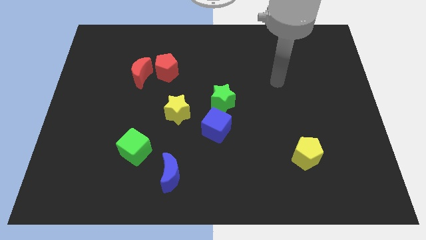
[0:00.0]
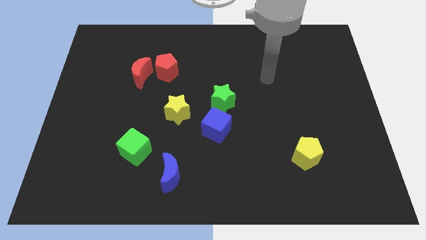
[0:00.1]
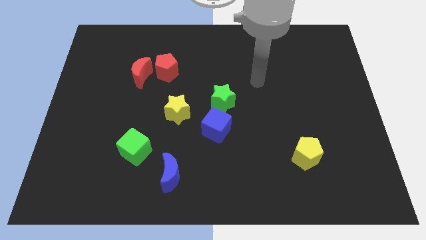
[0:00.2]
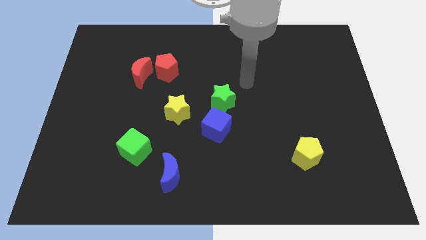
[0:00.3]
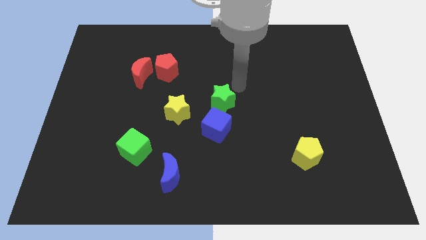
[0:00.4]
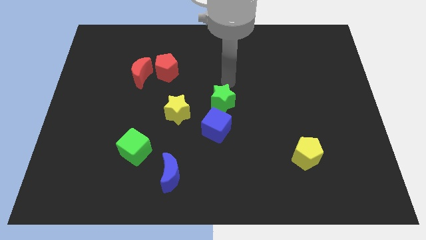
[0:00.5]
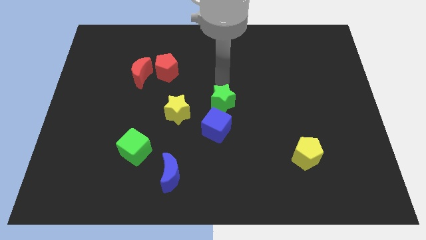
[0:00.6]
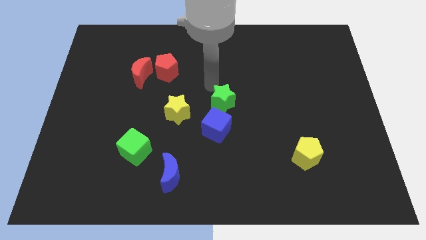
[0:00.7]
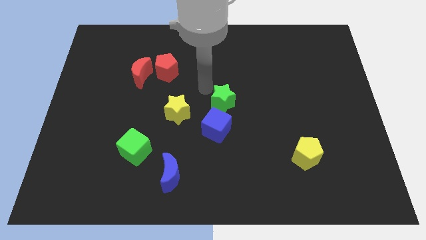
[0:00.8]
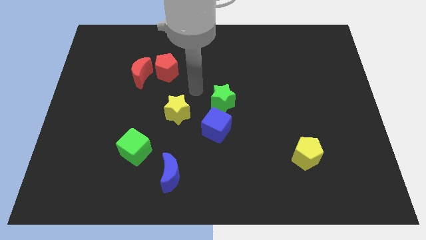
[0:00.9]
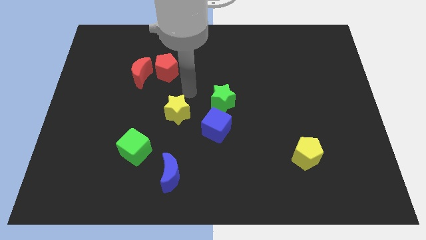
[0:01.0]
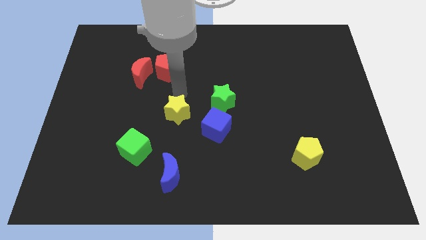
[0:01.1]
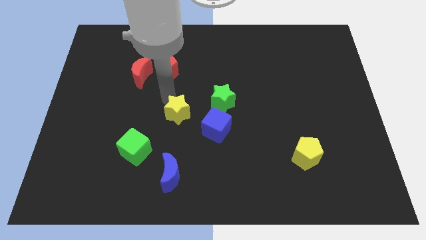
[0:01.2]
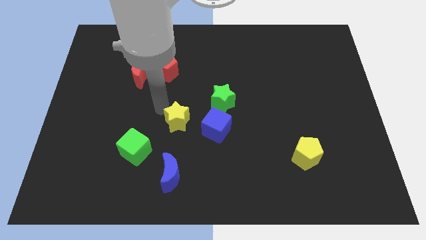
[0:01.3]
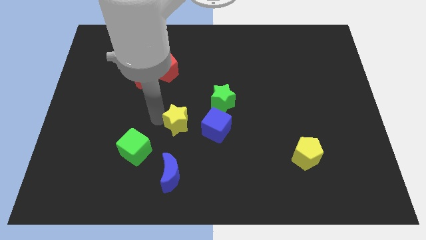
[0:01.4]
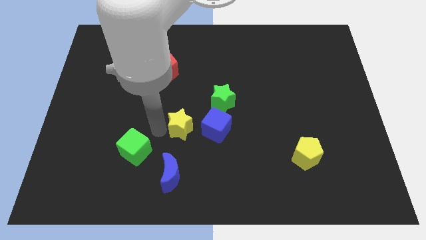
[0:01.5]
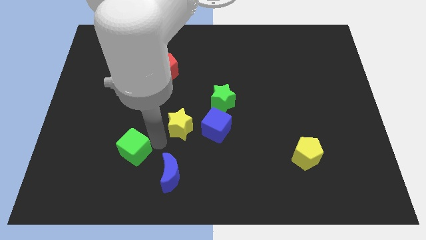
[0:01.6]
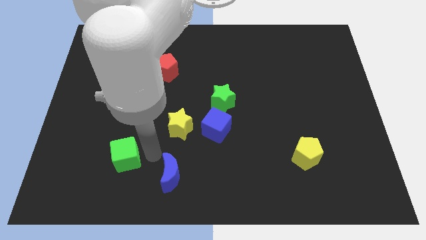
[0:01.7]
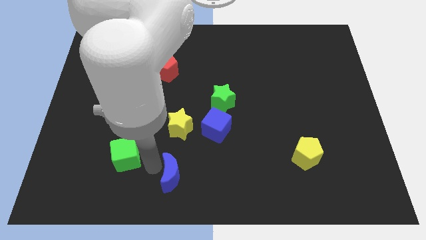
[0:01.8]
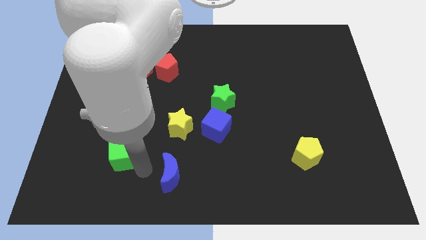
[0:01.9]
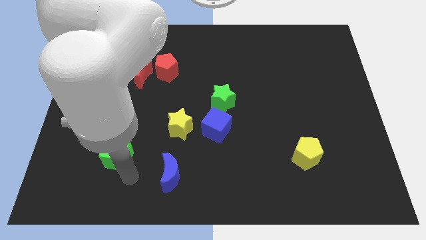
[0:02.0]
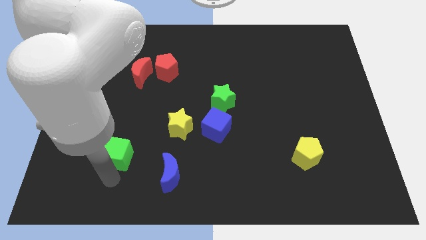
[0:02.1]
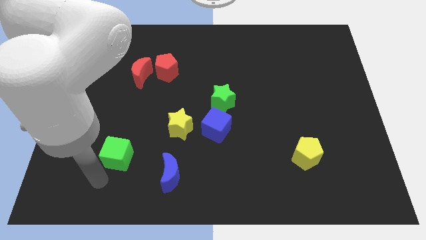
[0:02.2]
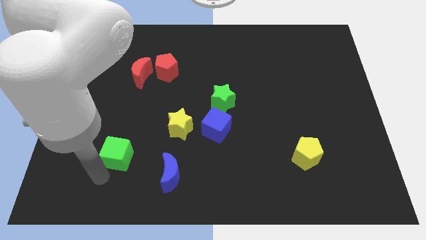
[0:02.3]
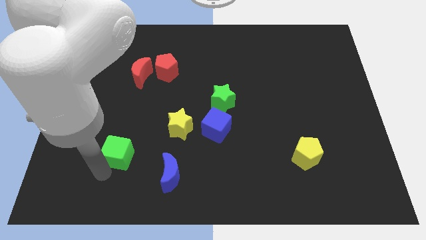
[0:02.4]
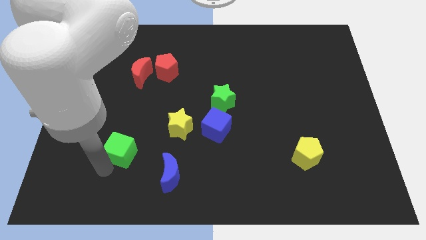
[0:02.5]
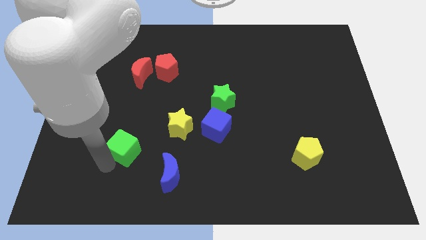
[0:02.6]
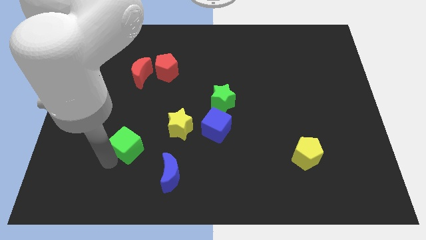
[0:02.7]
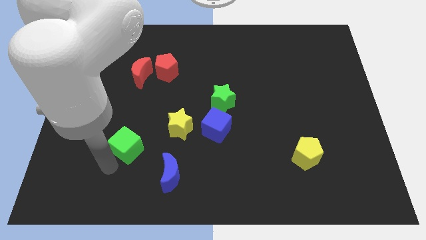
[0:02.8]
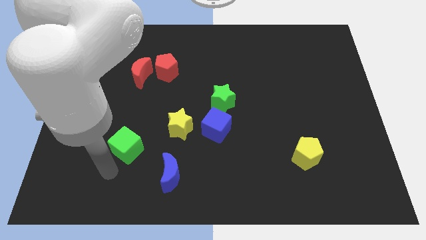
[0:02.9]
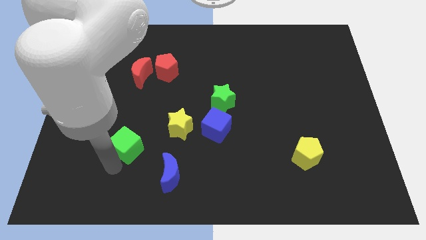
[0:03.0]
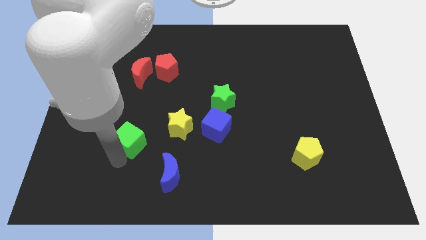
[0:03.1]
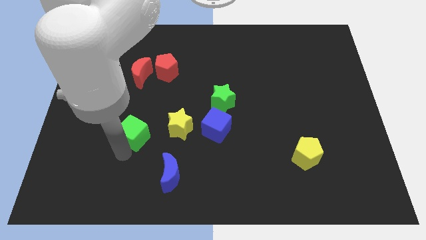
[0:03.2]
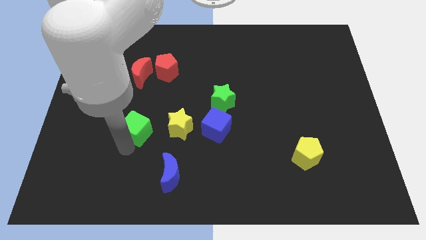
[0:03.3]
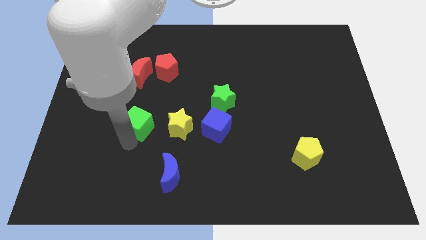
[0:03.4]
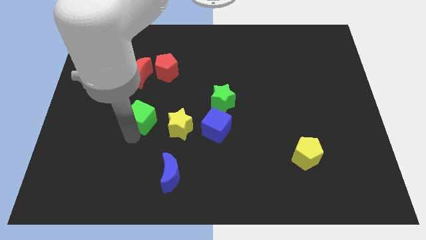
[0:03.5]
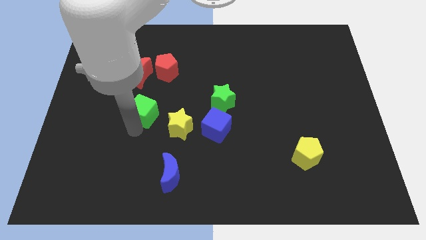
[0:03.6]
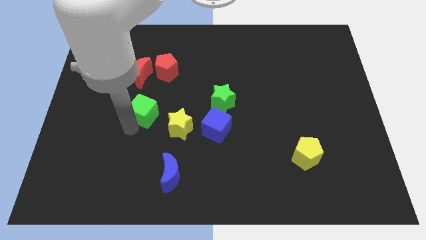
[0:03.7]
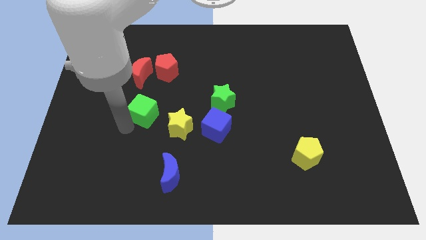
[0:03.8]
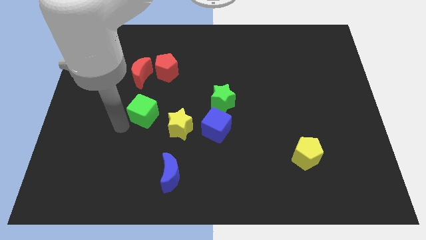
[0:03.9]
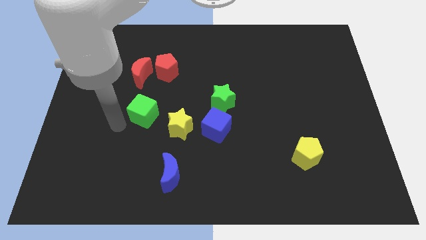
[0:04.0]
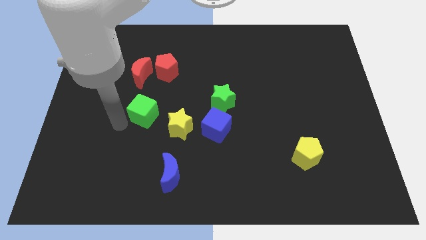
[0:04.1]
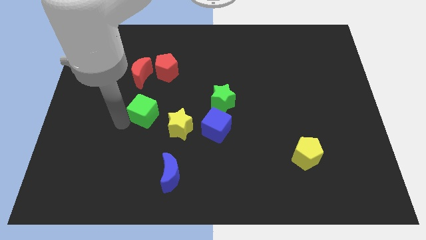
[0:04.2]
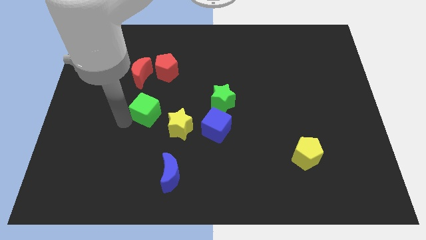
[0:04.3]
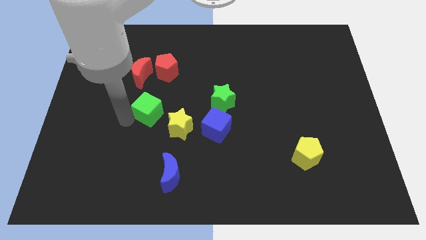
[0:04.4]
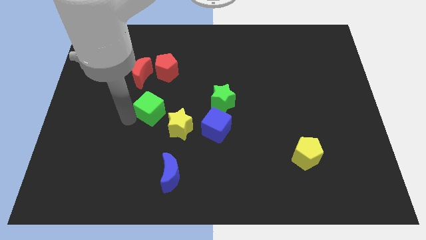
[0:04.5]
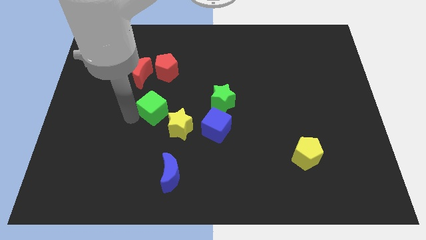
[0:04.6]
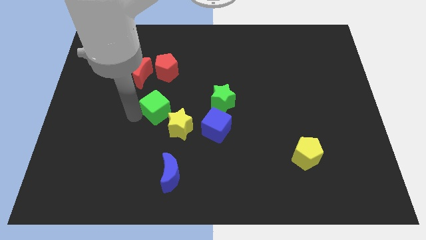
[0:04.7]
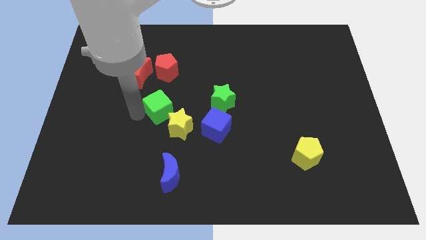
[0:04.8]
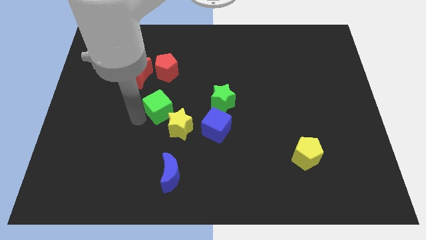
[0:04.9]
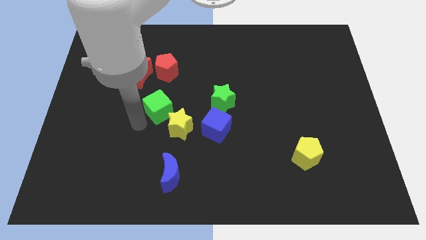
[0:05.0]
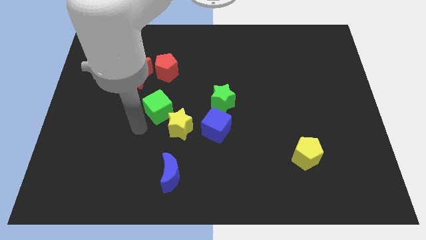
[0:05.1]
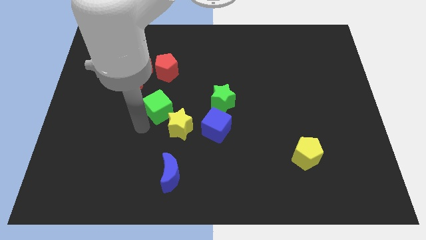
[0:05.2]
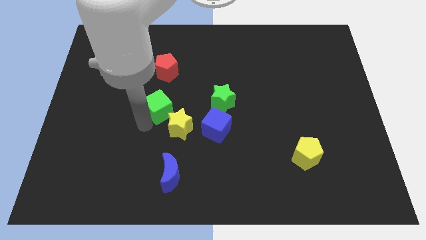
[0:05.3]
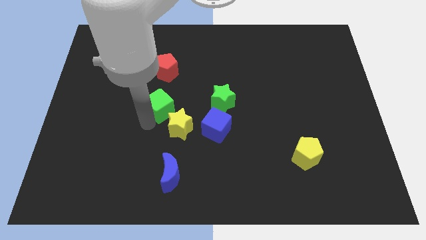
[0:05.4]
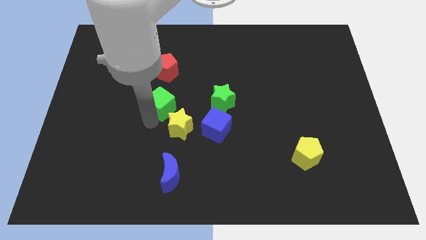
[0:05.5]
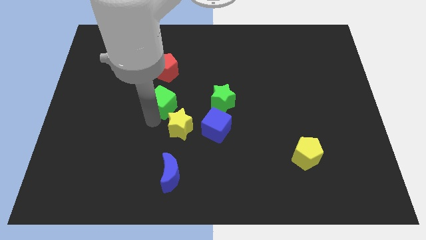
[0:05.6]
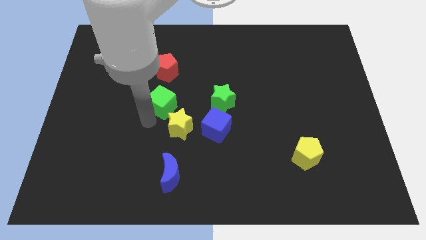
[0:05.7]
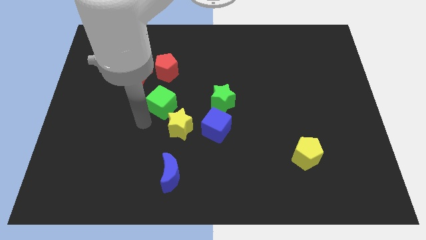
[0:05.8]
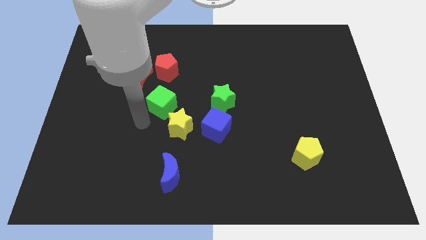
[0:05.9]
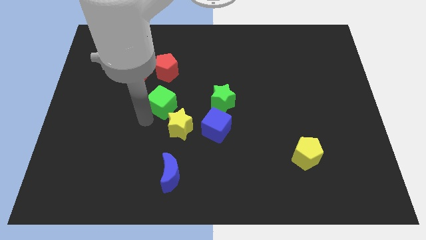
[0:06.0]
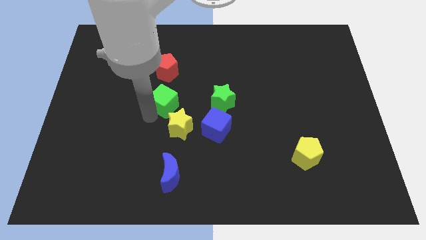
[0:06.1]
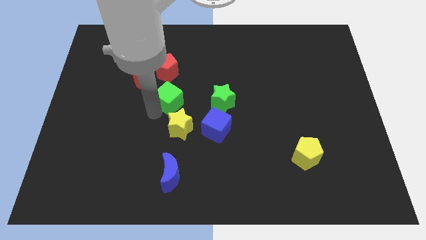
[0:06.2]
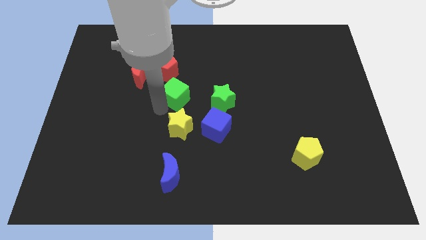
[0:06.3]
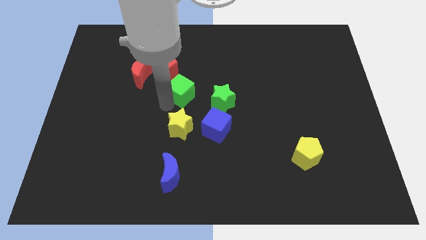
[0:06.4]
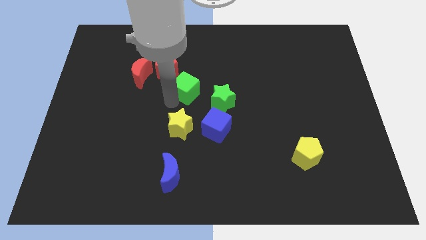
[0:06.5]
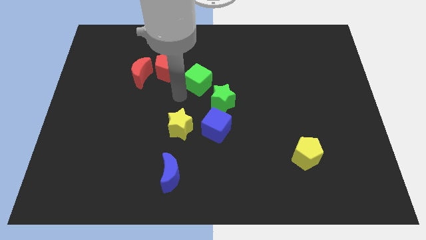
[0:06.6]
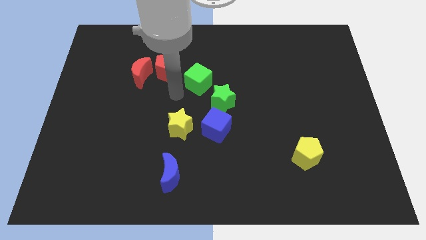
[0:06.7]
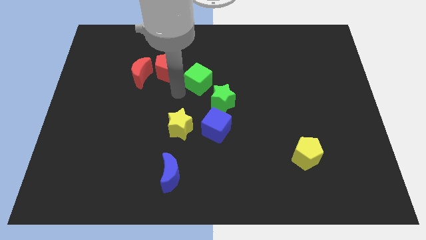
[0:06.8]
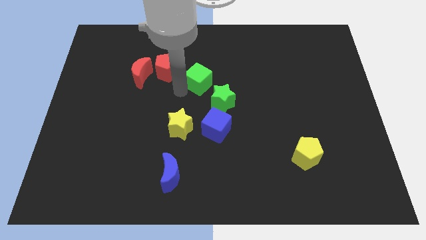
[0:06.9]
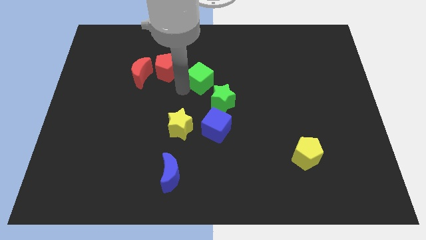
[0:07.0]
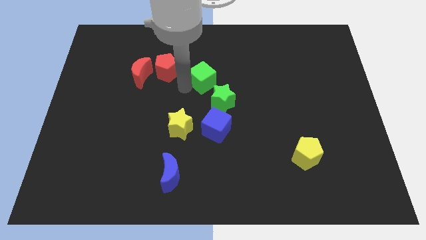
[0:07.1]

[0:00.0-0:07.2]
push the green cube to the top of the green star

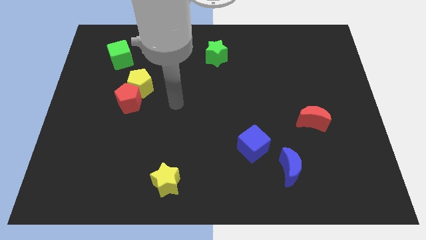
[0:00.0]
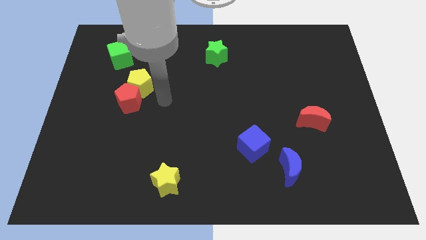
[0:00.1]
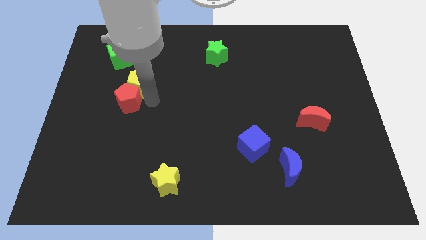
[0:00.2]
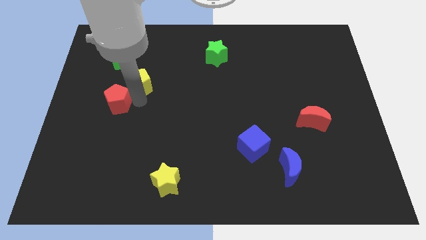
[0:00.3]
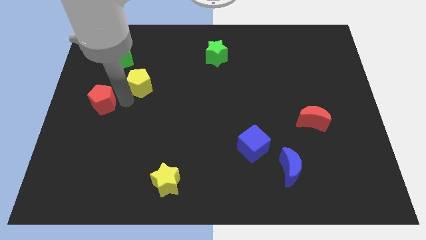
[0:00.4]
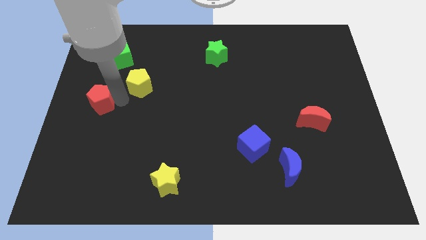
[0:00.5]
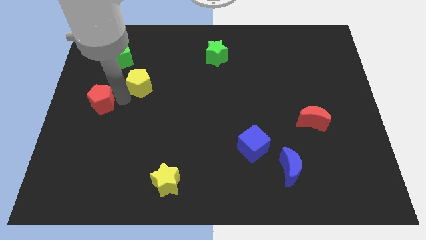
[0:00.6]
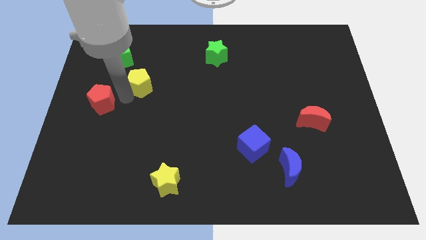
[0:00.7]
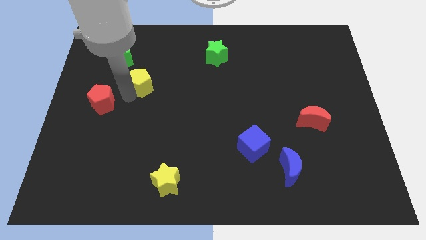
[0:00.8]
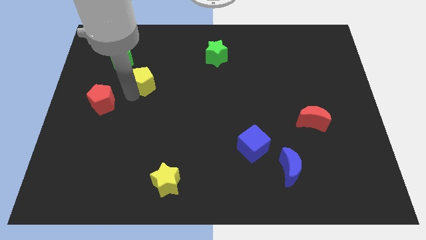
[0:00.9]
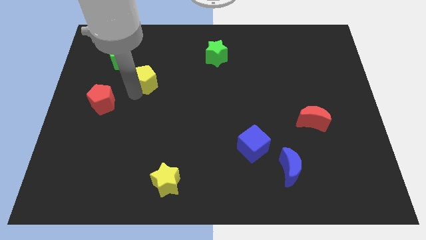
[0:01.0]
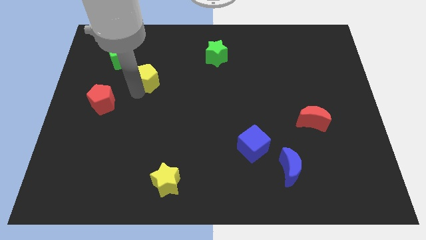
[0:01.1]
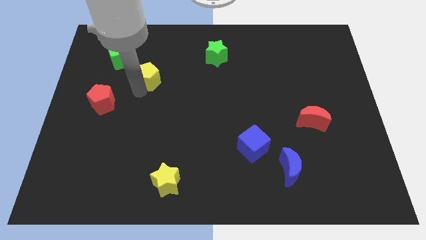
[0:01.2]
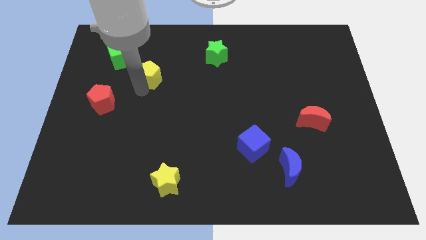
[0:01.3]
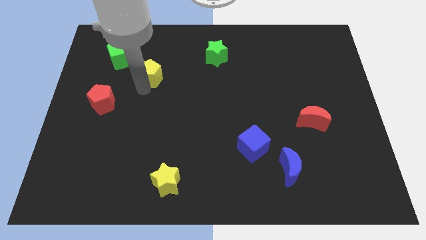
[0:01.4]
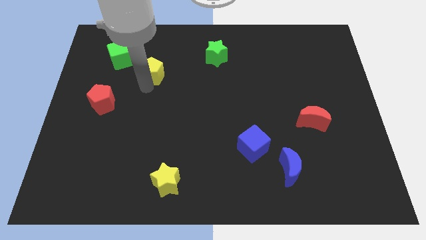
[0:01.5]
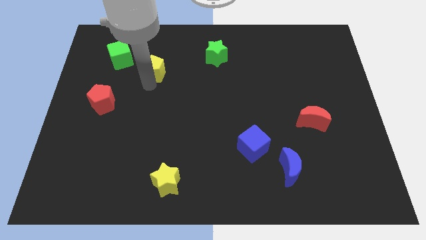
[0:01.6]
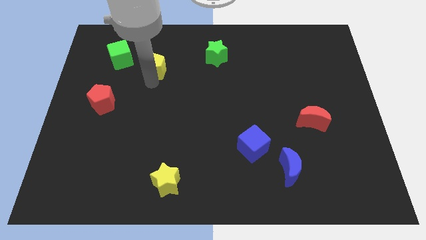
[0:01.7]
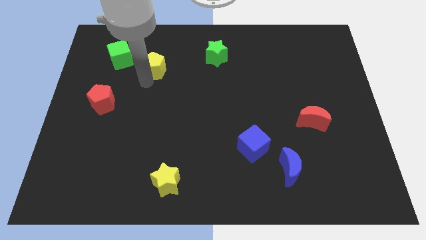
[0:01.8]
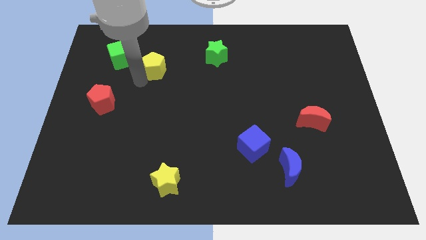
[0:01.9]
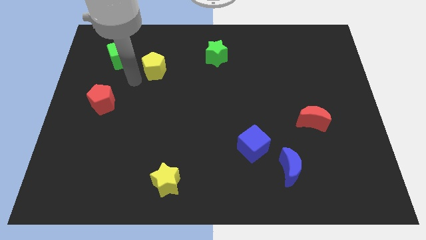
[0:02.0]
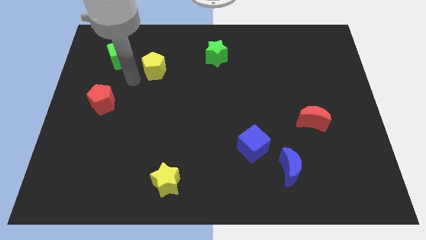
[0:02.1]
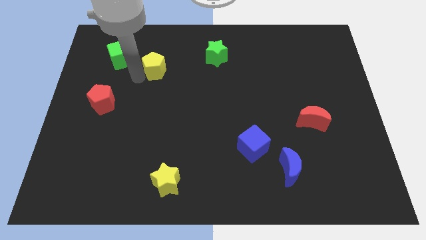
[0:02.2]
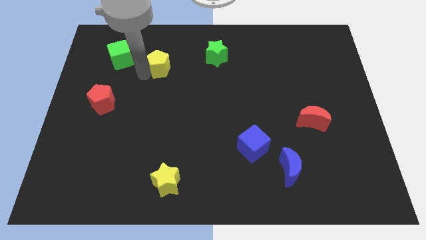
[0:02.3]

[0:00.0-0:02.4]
slide the yellow pentagon left of the green star
